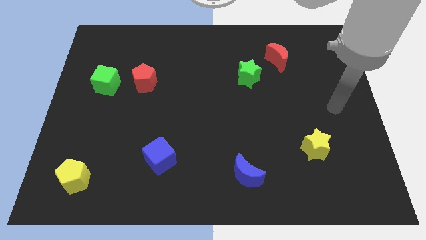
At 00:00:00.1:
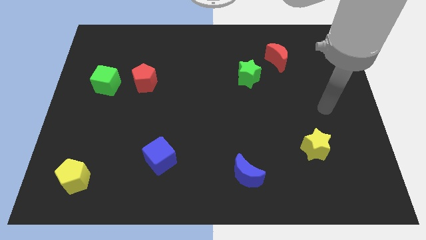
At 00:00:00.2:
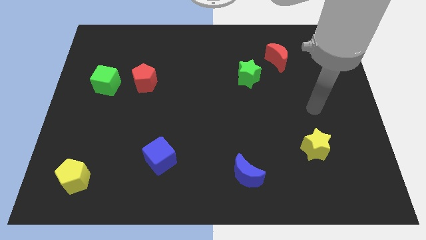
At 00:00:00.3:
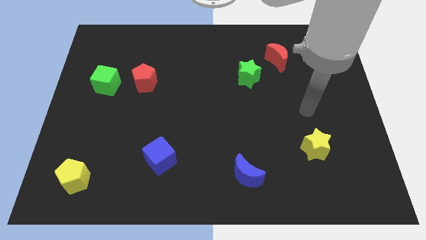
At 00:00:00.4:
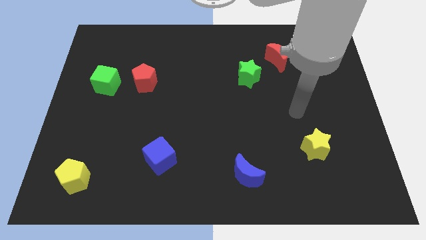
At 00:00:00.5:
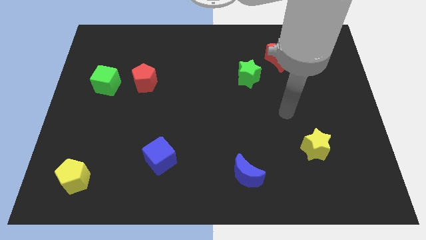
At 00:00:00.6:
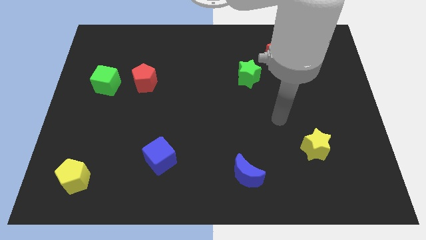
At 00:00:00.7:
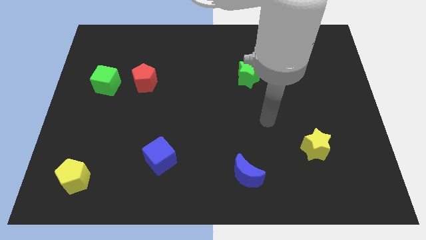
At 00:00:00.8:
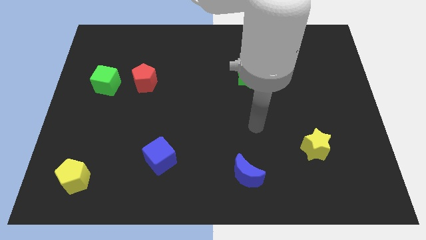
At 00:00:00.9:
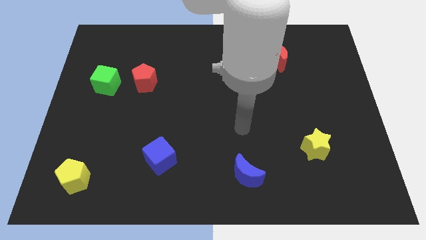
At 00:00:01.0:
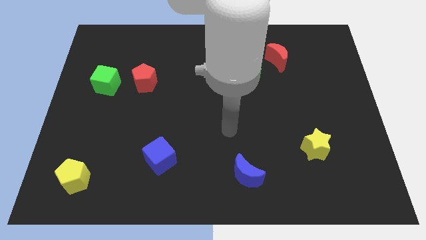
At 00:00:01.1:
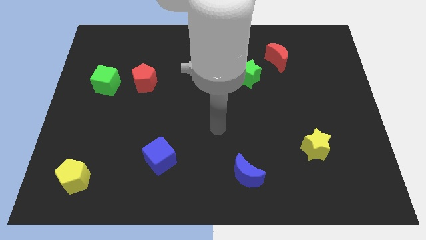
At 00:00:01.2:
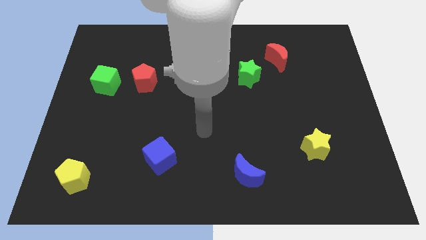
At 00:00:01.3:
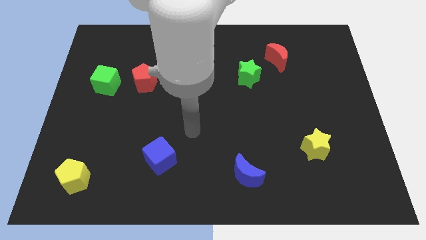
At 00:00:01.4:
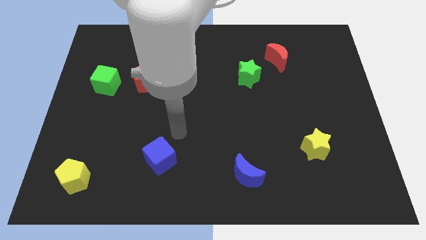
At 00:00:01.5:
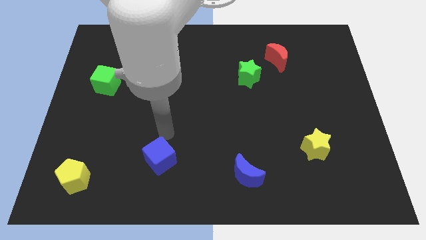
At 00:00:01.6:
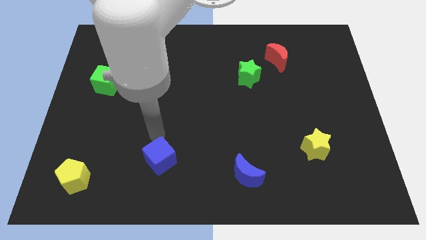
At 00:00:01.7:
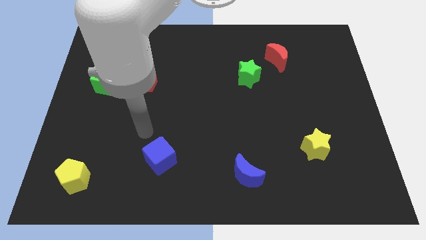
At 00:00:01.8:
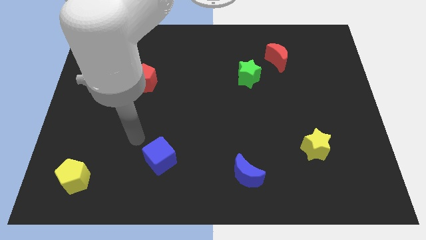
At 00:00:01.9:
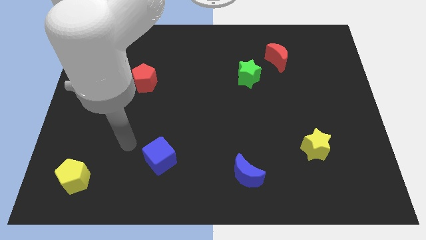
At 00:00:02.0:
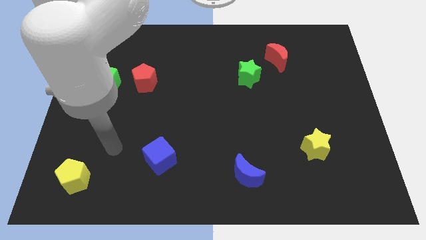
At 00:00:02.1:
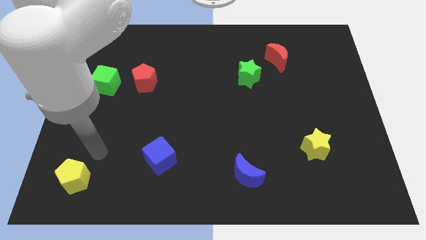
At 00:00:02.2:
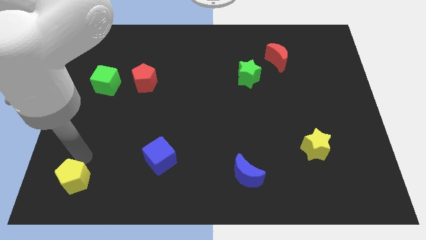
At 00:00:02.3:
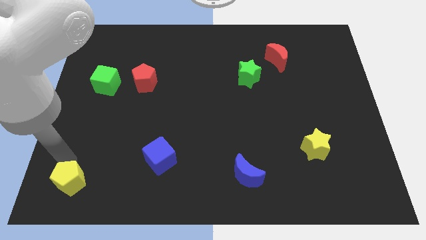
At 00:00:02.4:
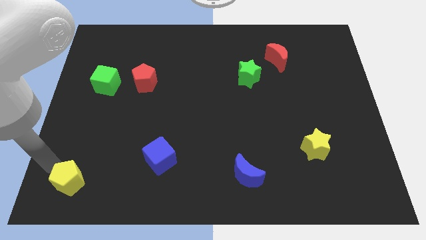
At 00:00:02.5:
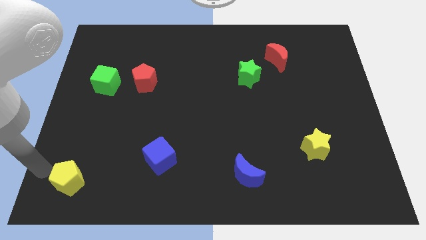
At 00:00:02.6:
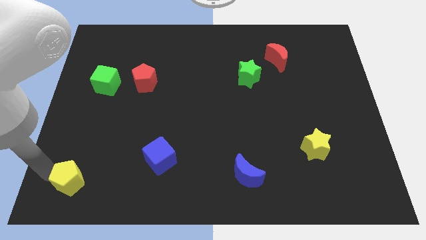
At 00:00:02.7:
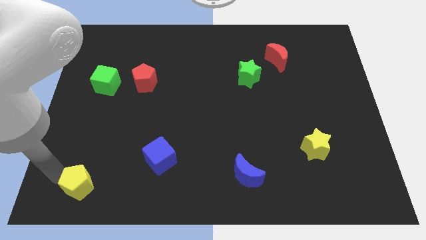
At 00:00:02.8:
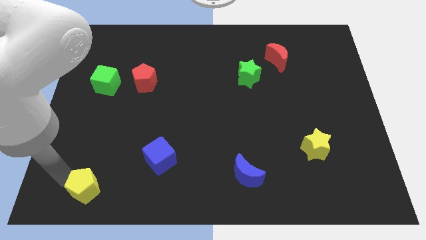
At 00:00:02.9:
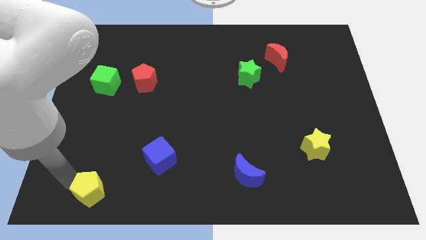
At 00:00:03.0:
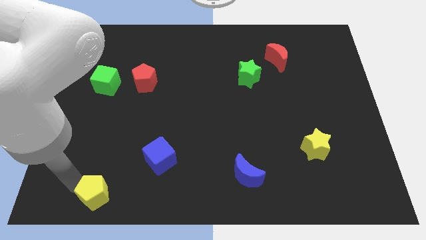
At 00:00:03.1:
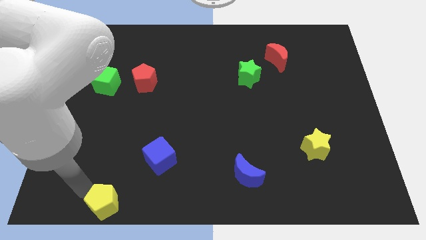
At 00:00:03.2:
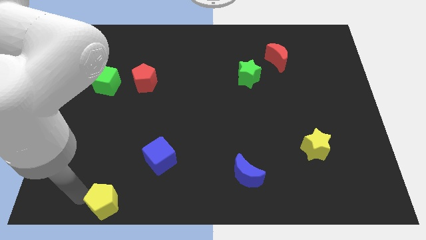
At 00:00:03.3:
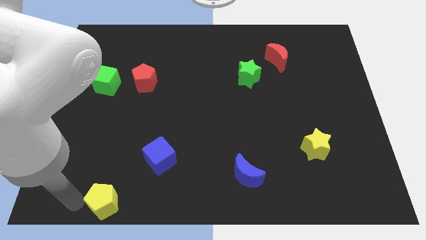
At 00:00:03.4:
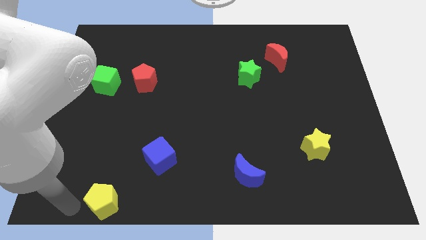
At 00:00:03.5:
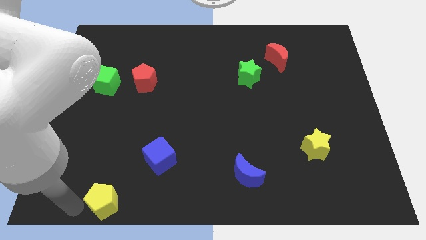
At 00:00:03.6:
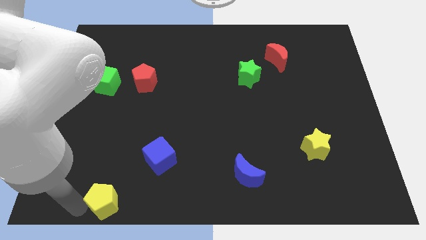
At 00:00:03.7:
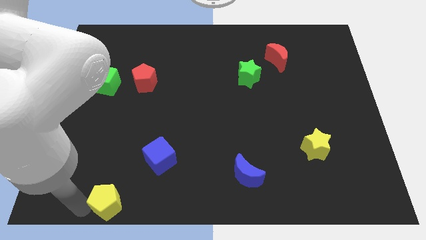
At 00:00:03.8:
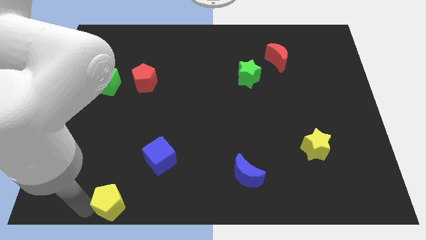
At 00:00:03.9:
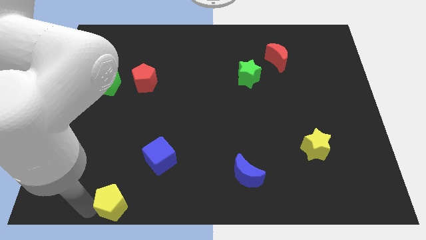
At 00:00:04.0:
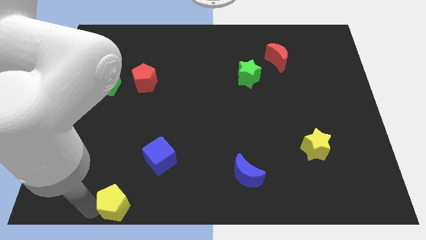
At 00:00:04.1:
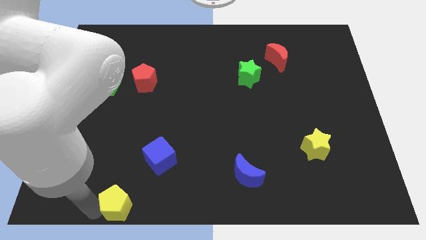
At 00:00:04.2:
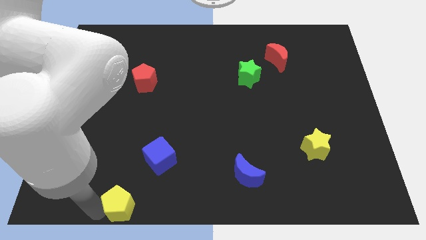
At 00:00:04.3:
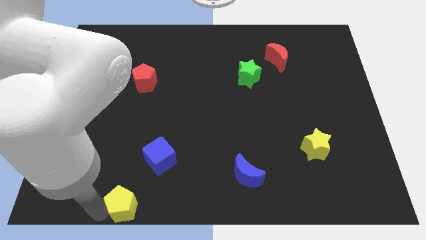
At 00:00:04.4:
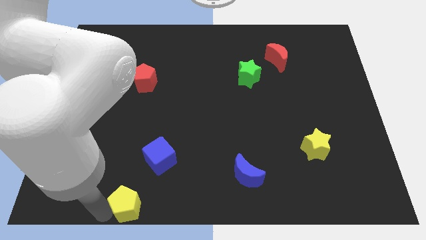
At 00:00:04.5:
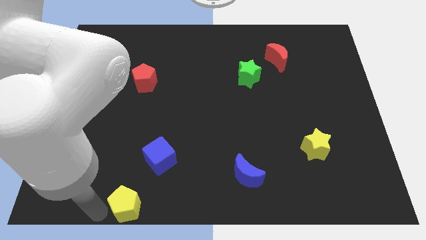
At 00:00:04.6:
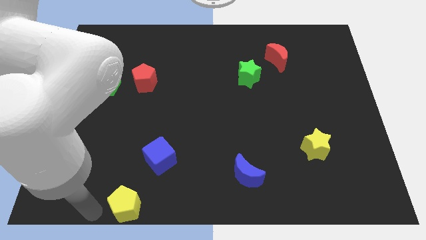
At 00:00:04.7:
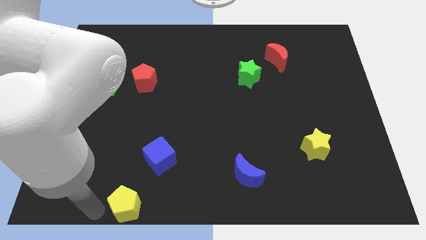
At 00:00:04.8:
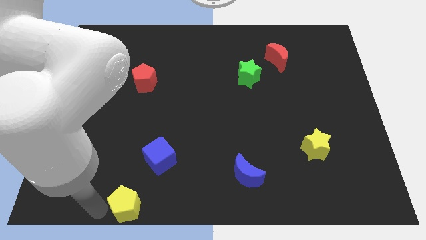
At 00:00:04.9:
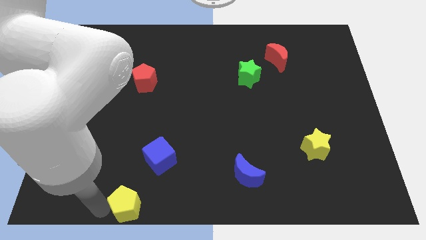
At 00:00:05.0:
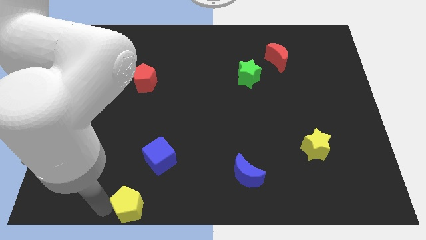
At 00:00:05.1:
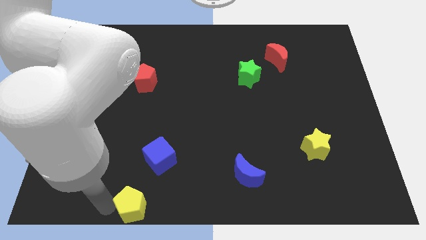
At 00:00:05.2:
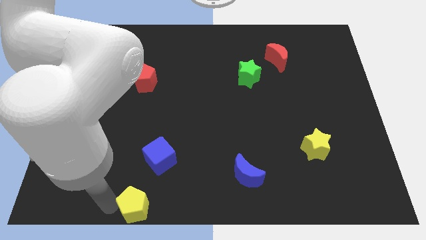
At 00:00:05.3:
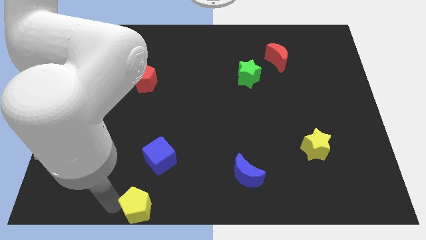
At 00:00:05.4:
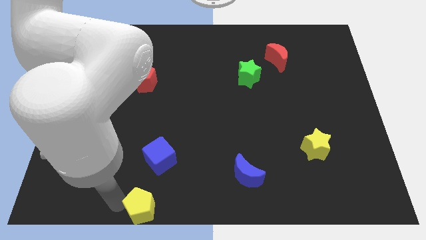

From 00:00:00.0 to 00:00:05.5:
push the yellow pentagon to the bottom side

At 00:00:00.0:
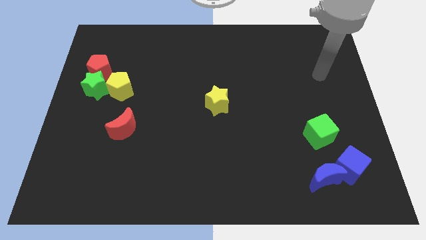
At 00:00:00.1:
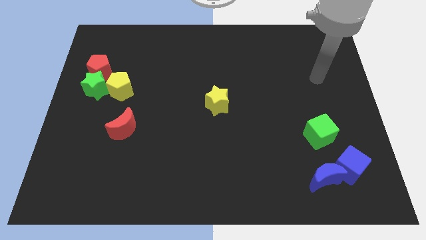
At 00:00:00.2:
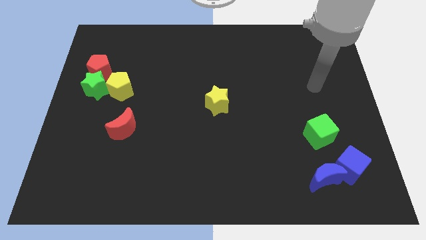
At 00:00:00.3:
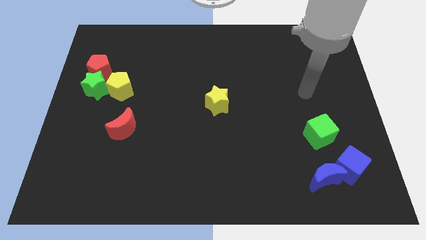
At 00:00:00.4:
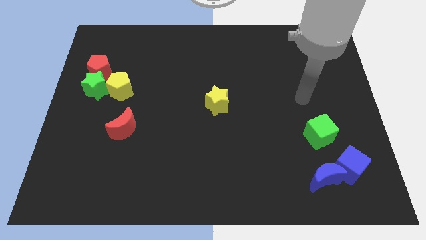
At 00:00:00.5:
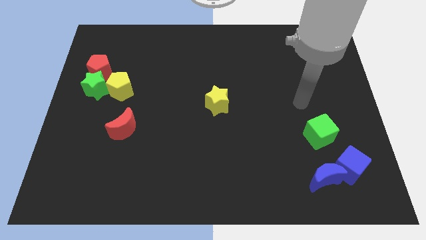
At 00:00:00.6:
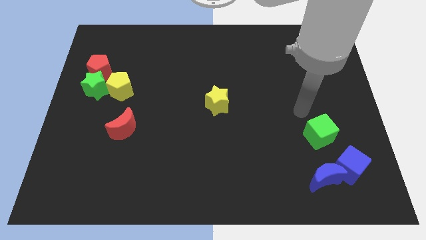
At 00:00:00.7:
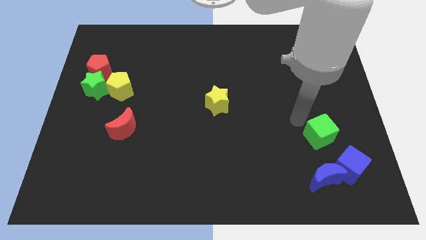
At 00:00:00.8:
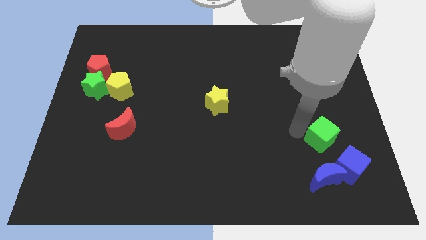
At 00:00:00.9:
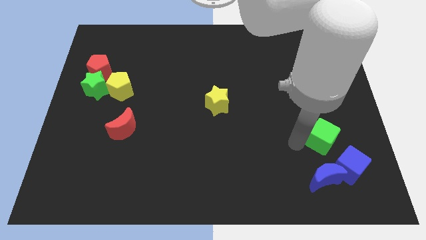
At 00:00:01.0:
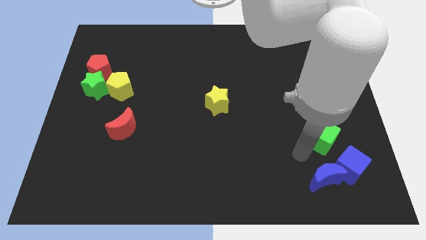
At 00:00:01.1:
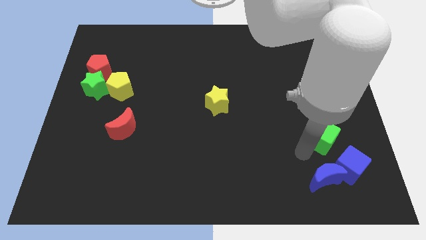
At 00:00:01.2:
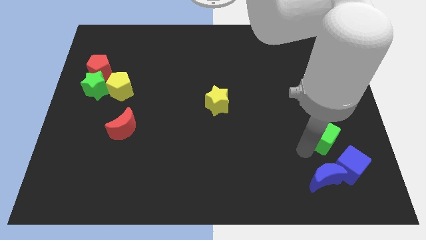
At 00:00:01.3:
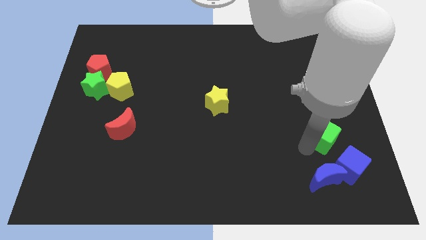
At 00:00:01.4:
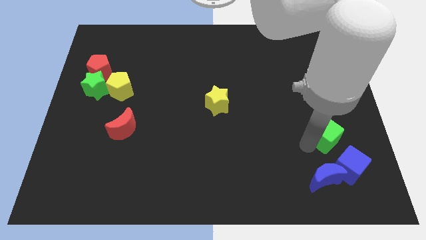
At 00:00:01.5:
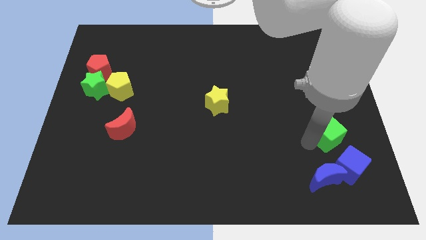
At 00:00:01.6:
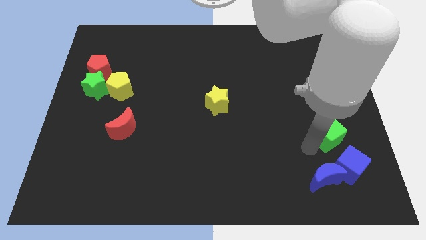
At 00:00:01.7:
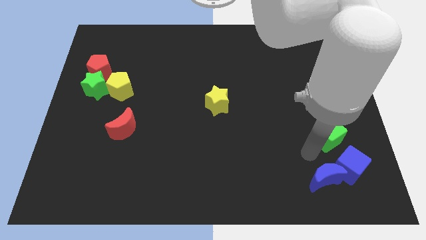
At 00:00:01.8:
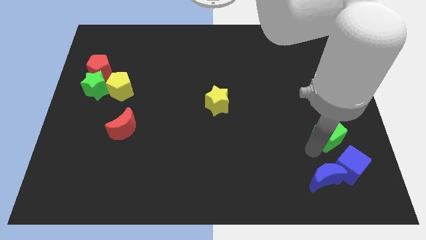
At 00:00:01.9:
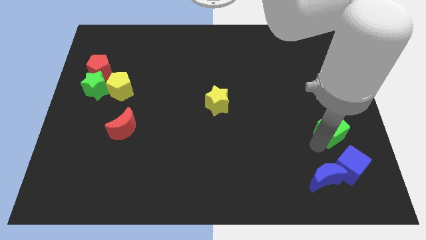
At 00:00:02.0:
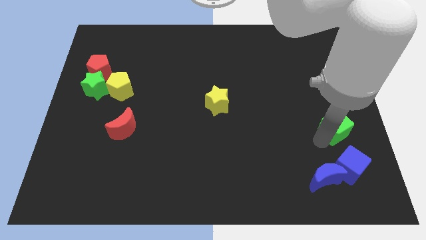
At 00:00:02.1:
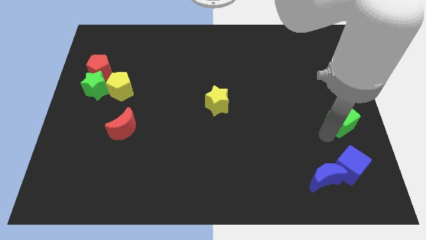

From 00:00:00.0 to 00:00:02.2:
put the green cube to the right side
